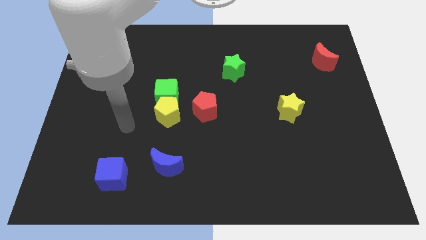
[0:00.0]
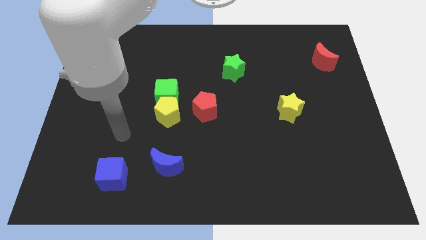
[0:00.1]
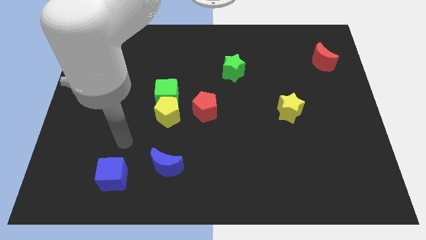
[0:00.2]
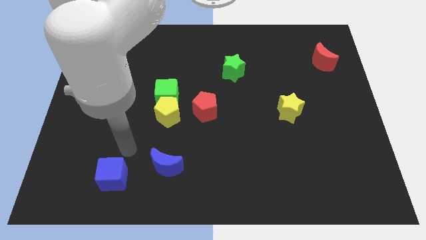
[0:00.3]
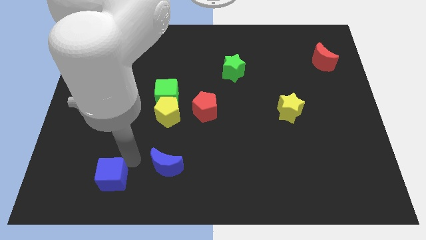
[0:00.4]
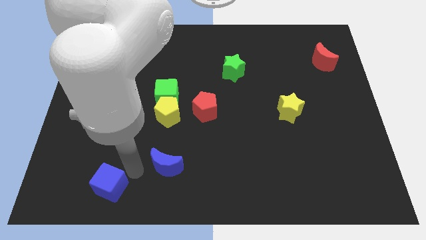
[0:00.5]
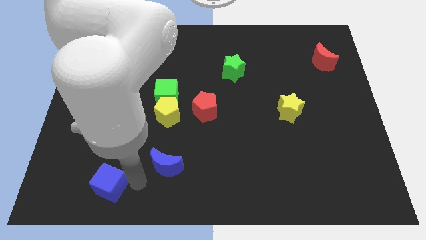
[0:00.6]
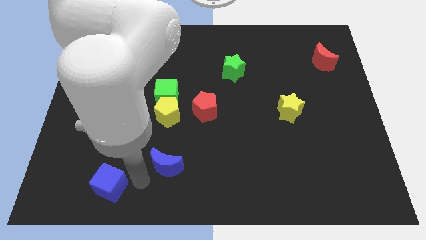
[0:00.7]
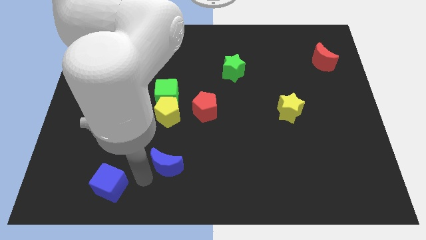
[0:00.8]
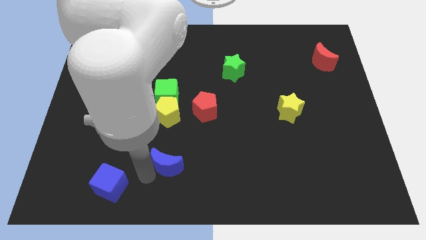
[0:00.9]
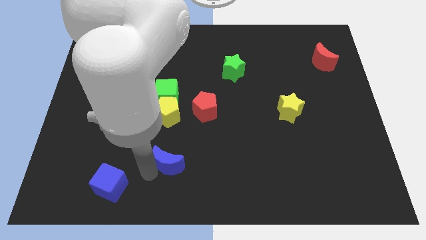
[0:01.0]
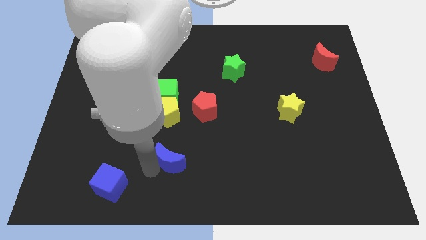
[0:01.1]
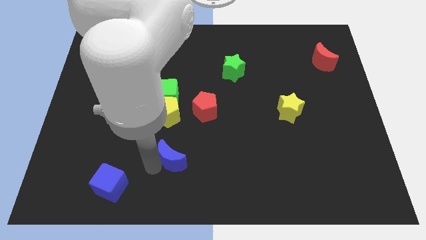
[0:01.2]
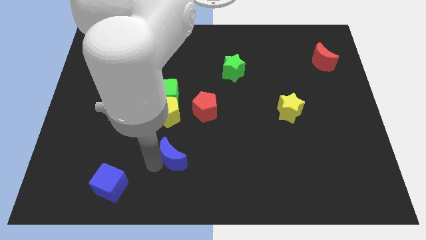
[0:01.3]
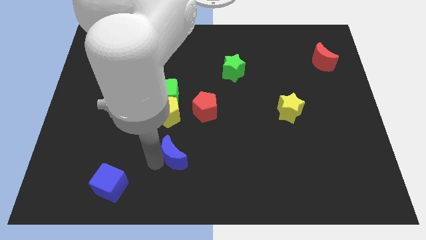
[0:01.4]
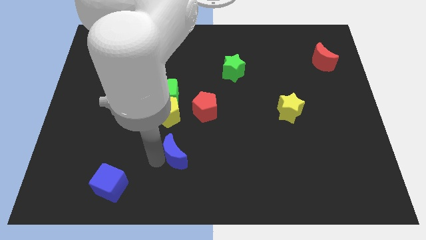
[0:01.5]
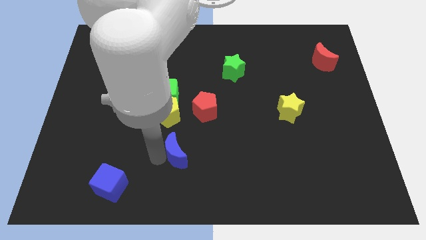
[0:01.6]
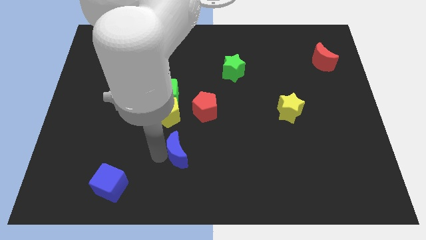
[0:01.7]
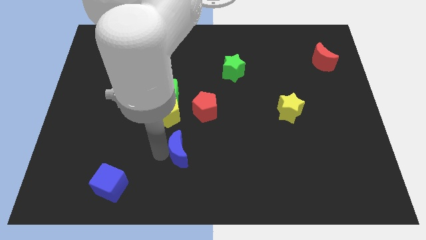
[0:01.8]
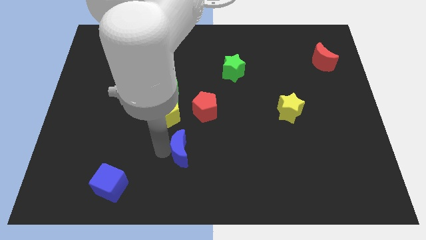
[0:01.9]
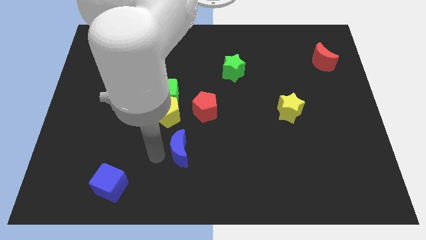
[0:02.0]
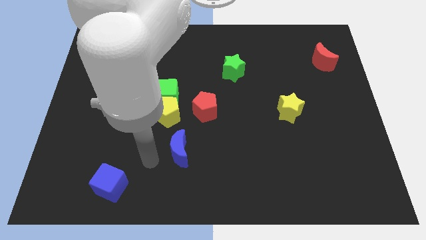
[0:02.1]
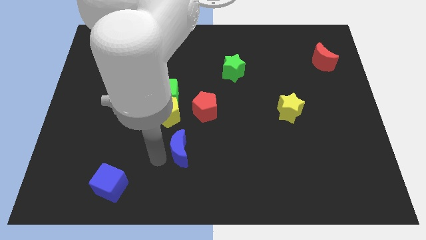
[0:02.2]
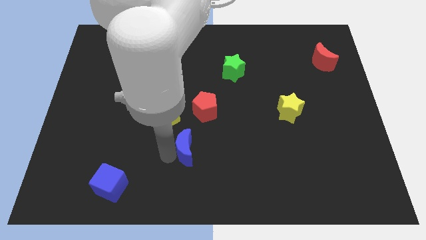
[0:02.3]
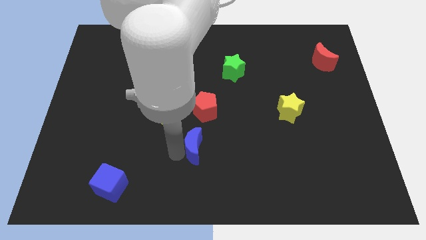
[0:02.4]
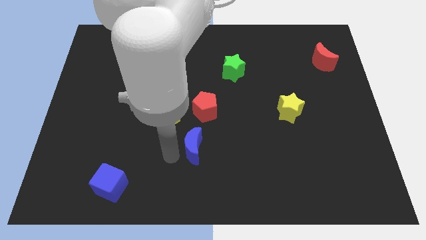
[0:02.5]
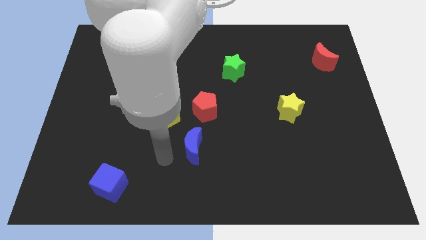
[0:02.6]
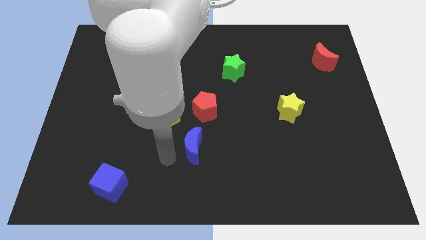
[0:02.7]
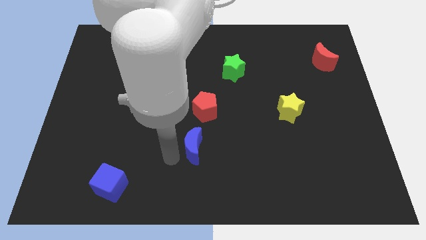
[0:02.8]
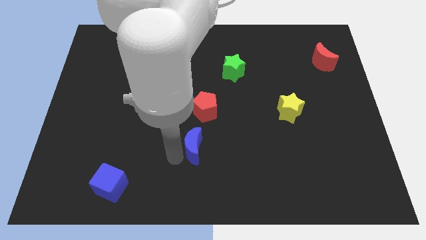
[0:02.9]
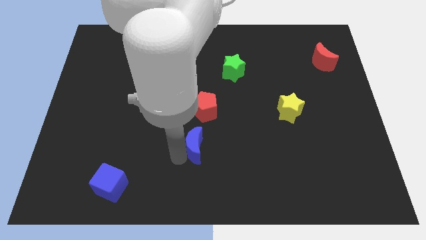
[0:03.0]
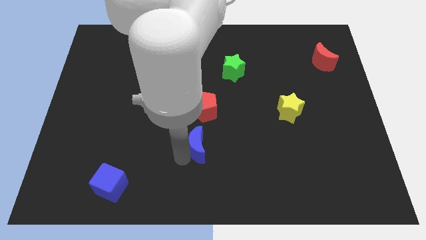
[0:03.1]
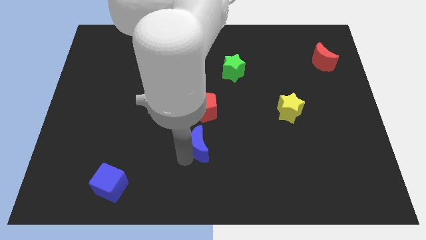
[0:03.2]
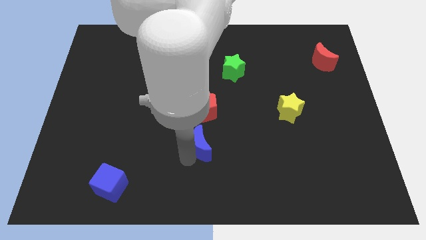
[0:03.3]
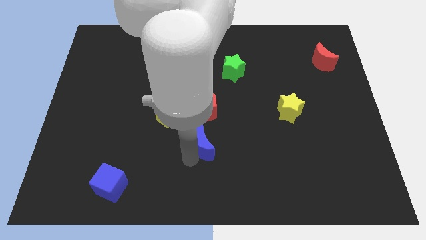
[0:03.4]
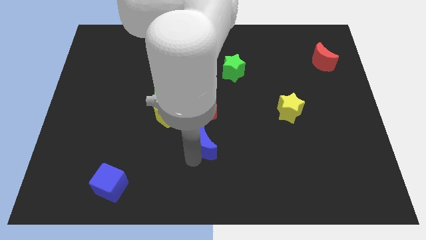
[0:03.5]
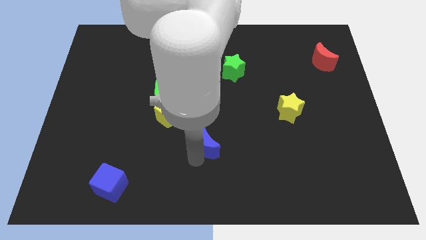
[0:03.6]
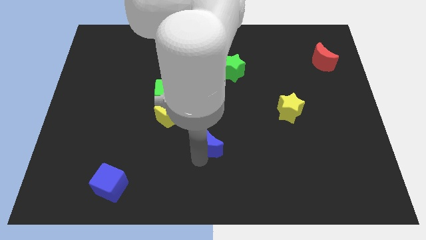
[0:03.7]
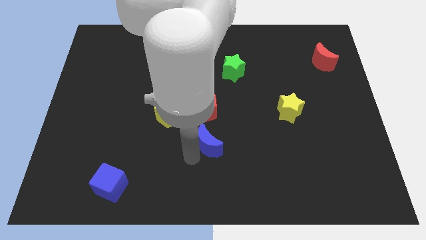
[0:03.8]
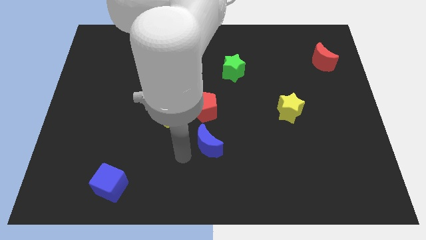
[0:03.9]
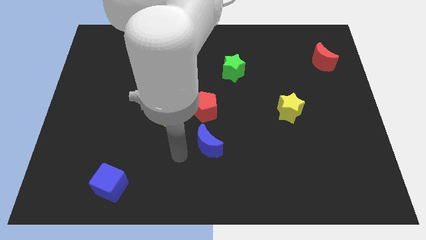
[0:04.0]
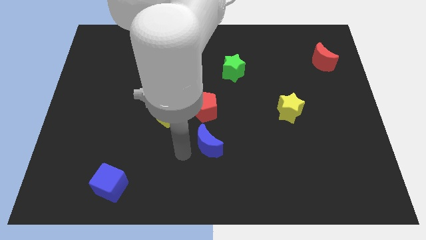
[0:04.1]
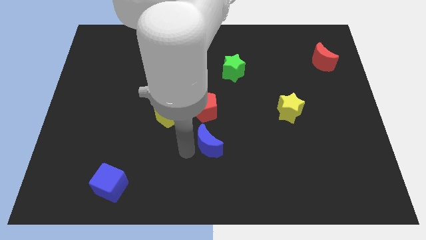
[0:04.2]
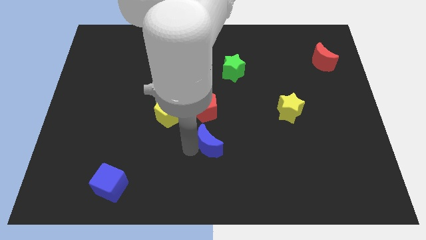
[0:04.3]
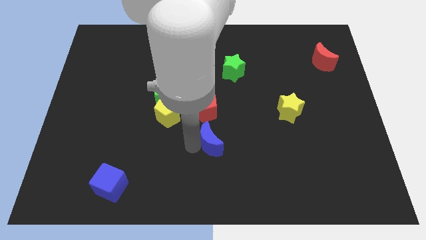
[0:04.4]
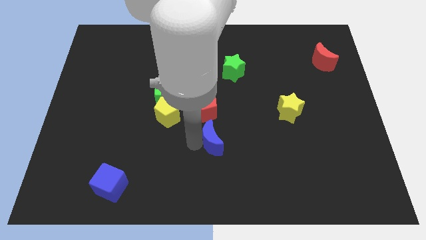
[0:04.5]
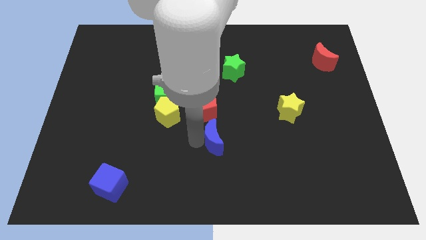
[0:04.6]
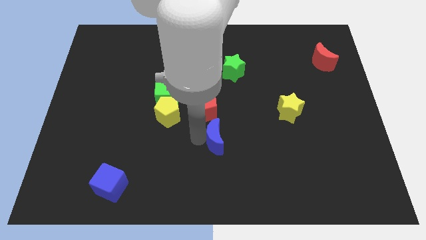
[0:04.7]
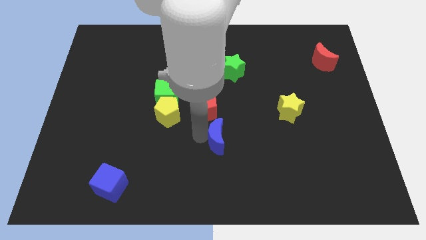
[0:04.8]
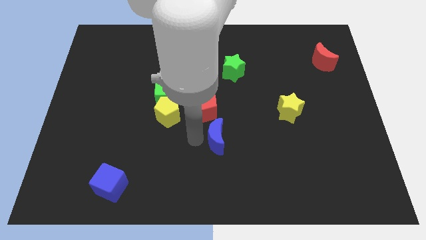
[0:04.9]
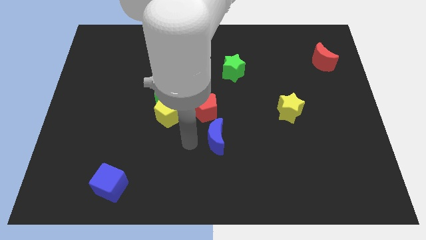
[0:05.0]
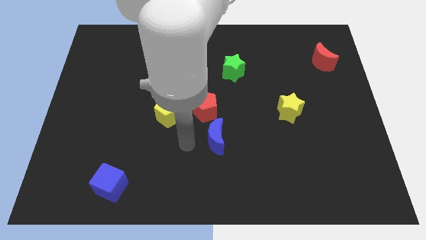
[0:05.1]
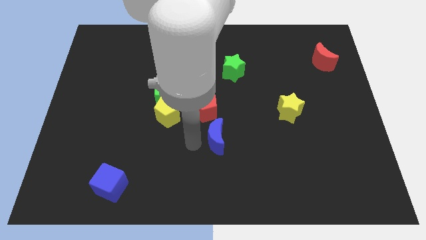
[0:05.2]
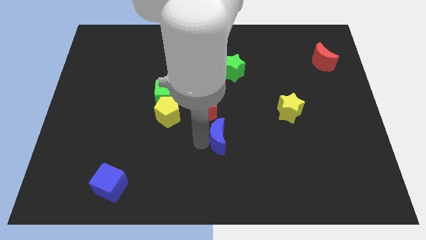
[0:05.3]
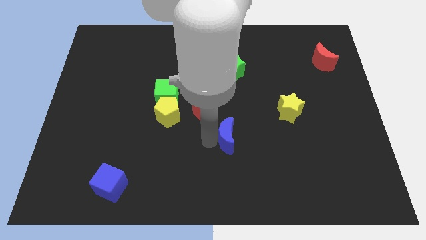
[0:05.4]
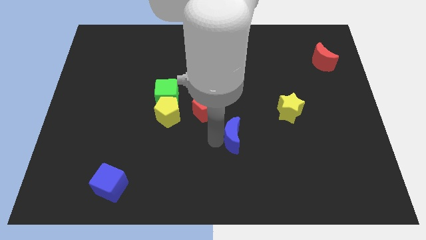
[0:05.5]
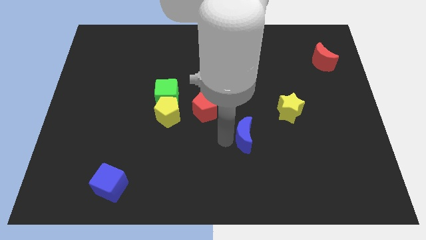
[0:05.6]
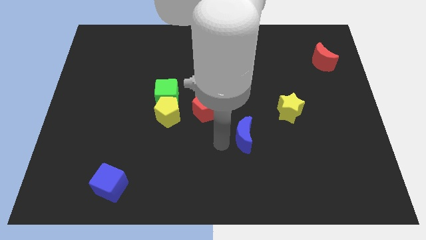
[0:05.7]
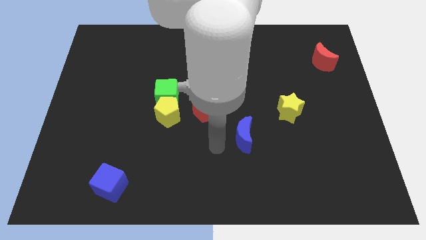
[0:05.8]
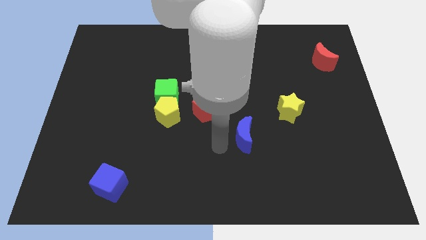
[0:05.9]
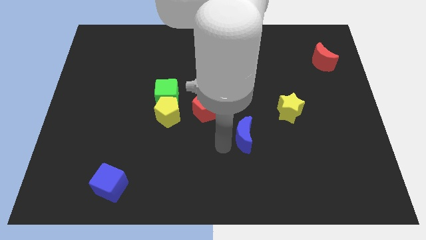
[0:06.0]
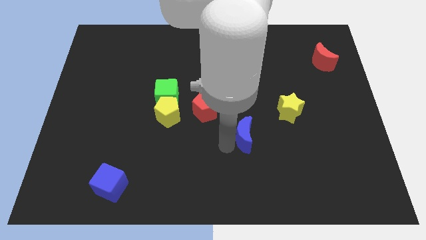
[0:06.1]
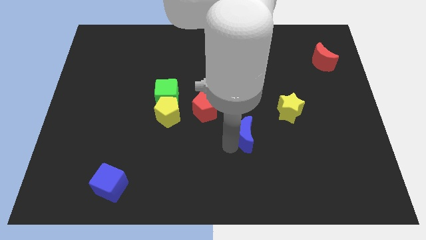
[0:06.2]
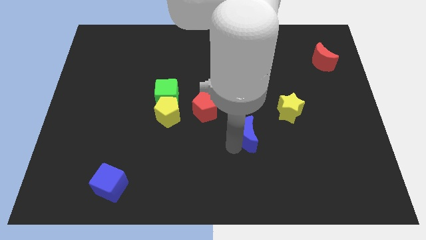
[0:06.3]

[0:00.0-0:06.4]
put the blue moon to the bottom left side of the yellow star

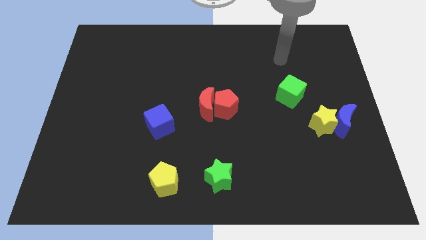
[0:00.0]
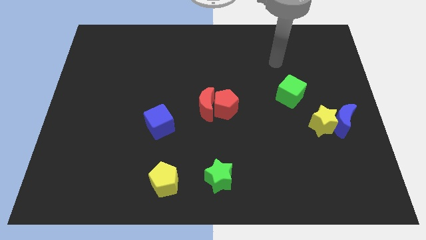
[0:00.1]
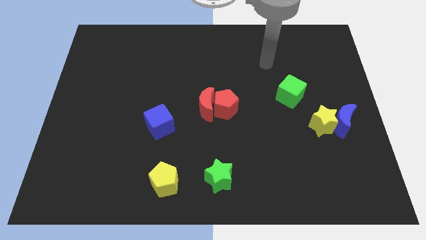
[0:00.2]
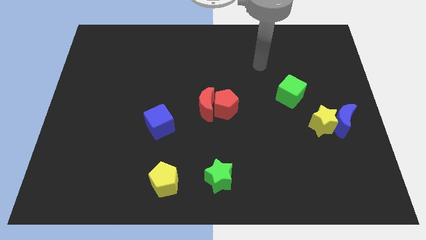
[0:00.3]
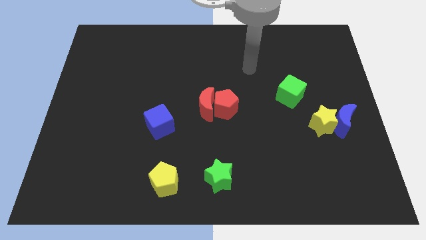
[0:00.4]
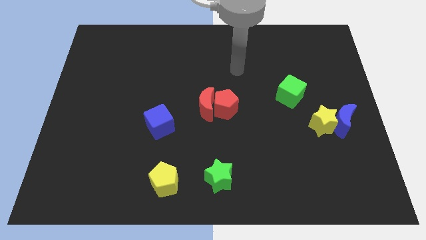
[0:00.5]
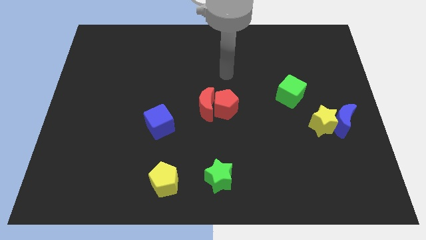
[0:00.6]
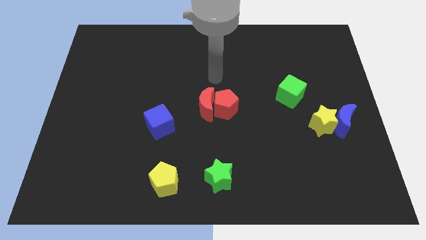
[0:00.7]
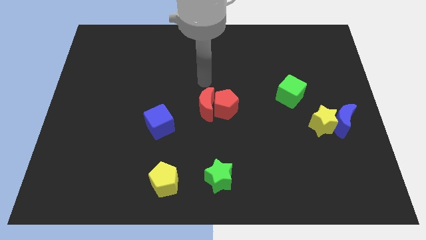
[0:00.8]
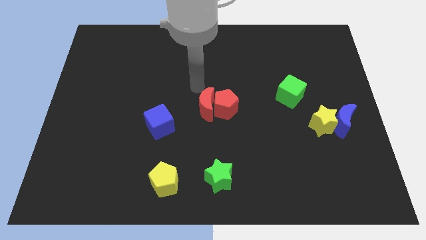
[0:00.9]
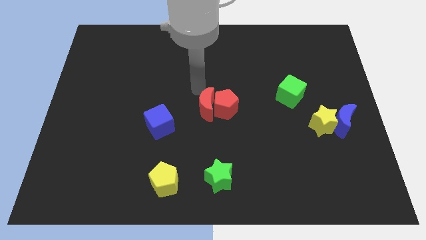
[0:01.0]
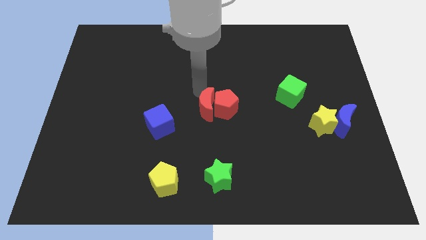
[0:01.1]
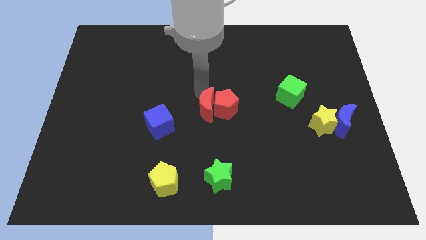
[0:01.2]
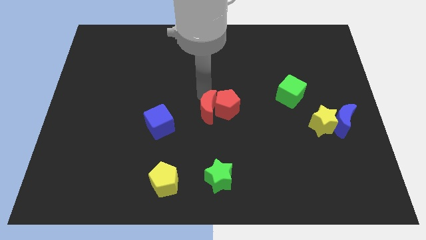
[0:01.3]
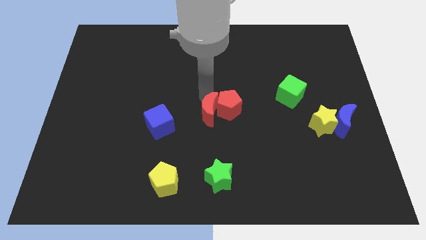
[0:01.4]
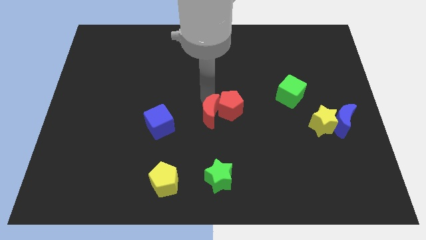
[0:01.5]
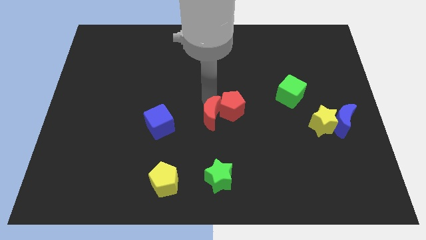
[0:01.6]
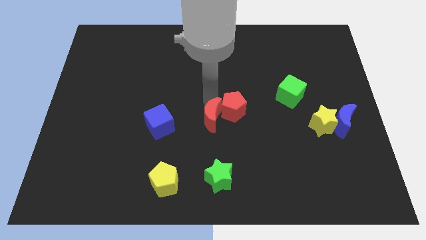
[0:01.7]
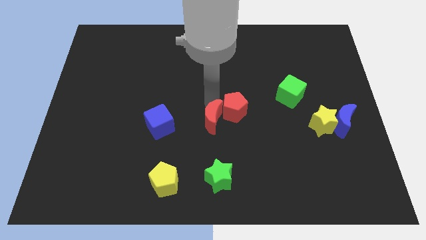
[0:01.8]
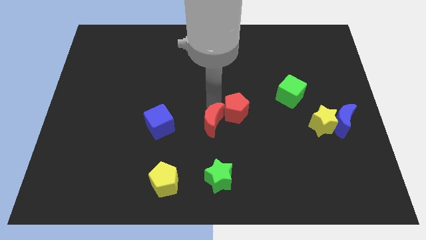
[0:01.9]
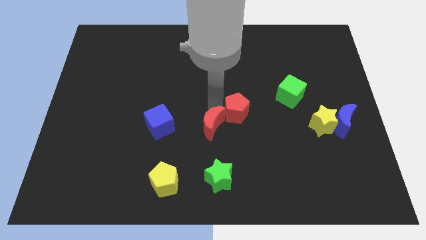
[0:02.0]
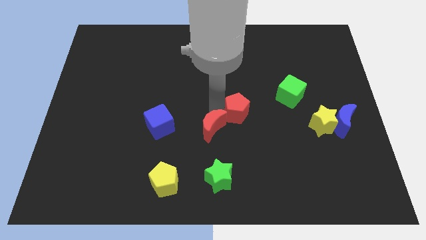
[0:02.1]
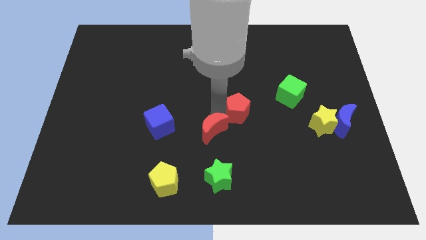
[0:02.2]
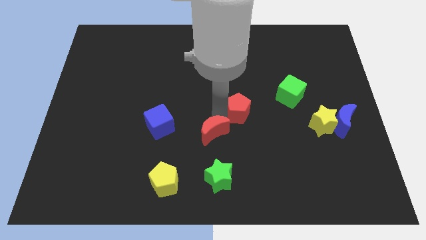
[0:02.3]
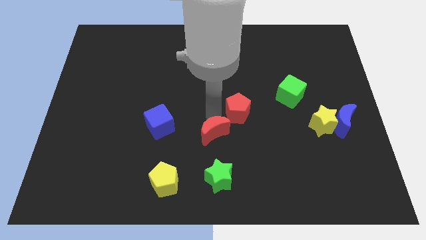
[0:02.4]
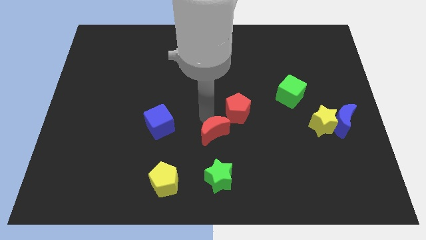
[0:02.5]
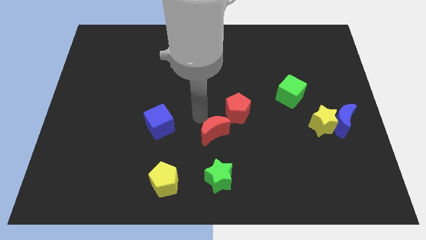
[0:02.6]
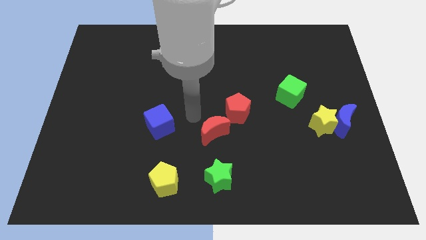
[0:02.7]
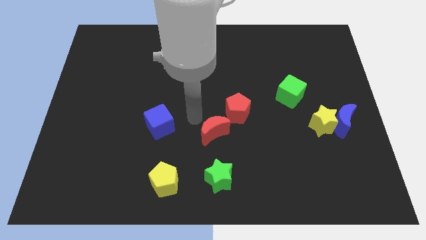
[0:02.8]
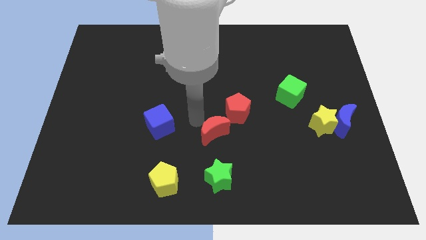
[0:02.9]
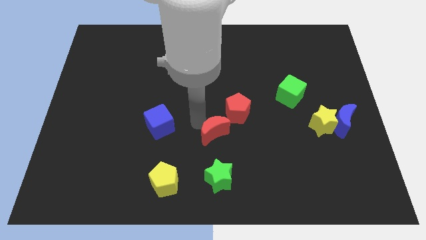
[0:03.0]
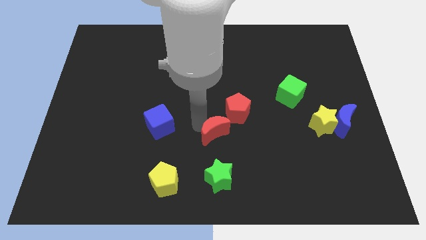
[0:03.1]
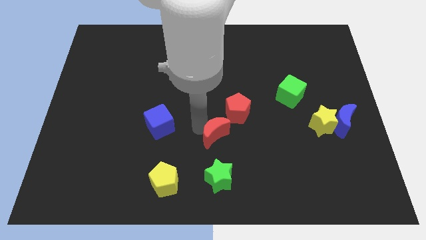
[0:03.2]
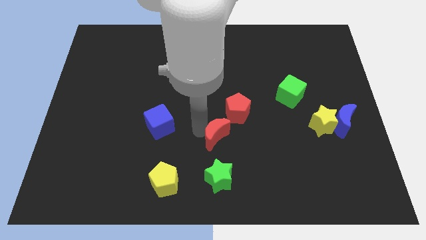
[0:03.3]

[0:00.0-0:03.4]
move the red moon to the bottom of the red pentagon
